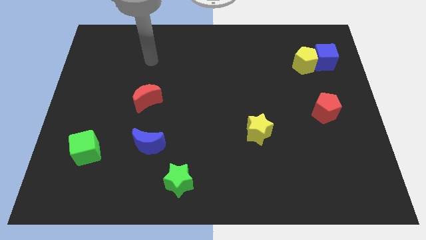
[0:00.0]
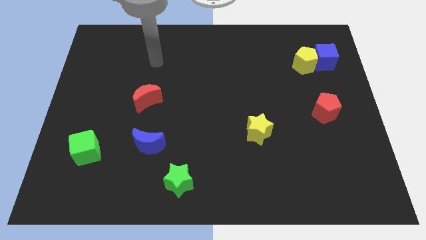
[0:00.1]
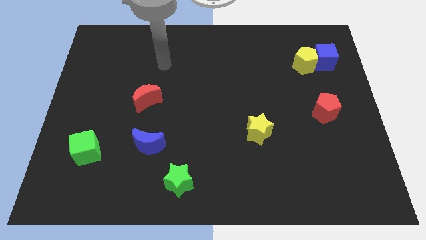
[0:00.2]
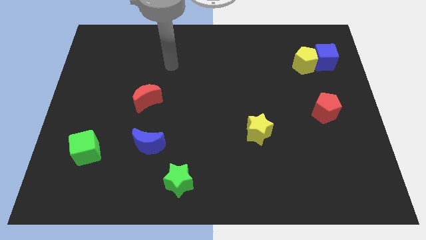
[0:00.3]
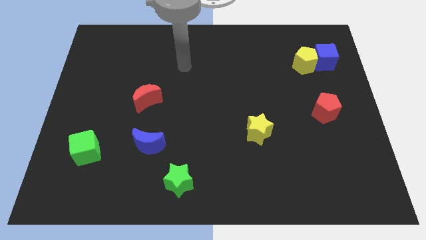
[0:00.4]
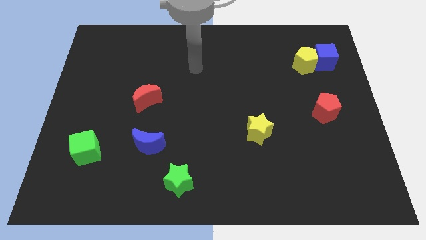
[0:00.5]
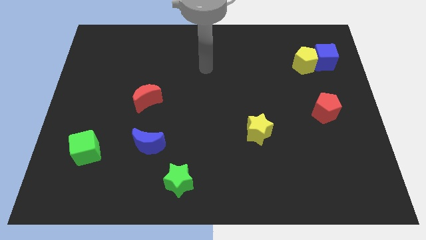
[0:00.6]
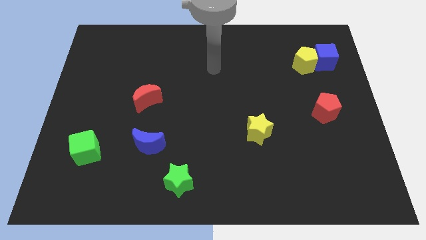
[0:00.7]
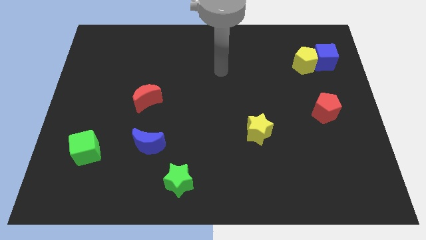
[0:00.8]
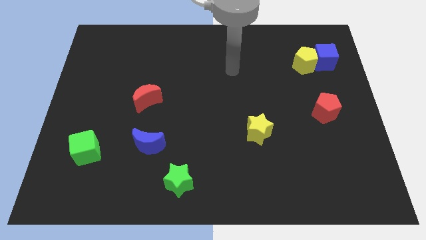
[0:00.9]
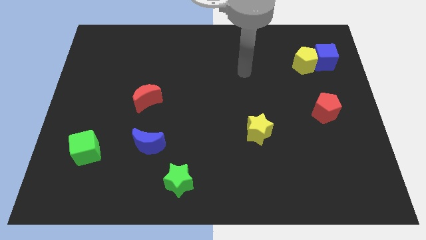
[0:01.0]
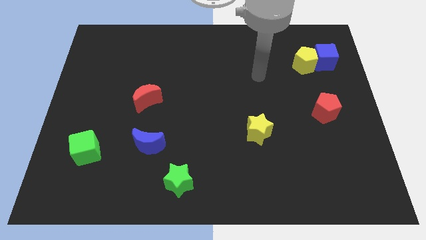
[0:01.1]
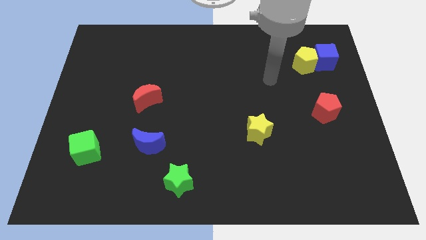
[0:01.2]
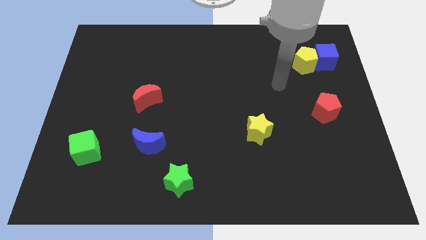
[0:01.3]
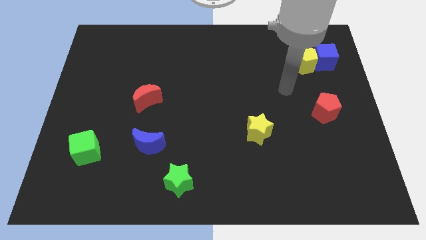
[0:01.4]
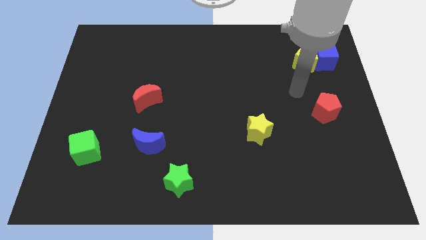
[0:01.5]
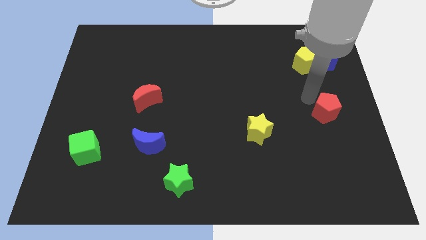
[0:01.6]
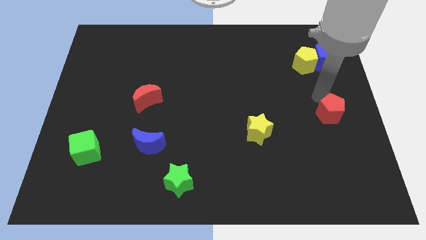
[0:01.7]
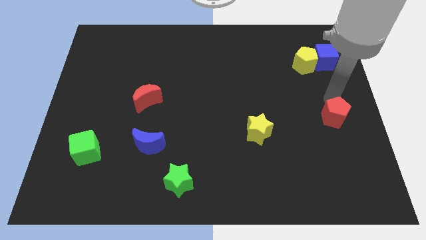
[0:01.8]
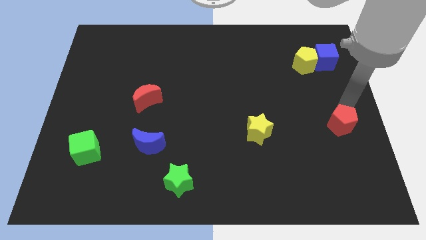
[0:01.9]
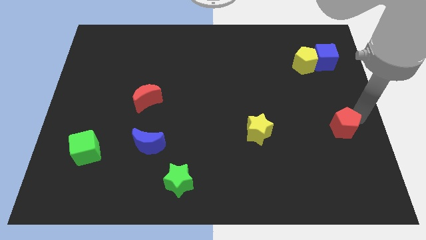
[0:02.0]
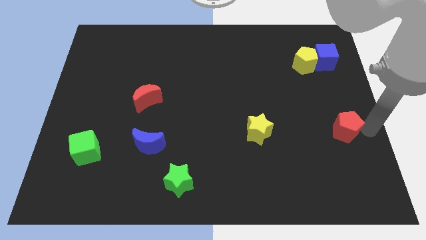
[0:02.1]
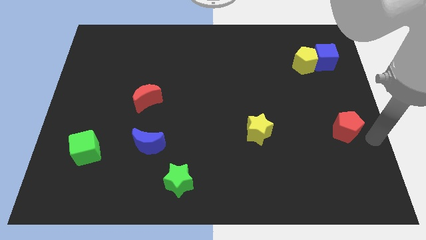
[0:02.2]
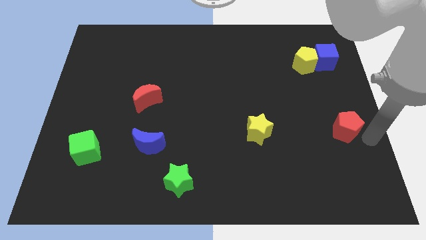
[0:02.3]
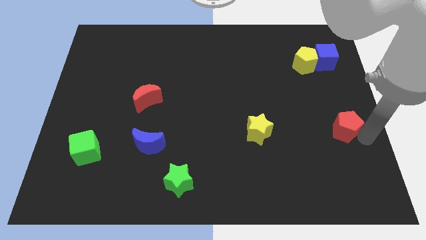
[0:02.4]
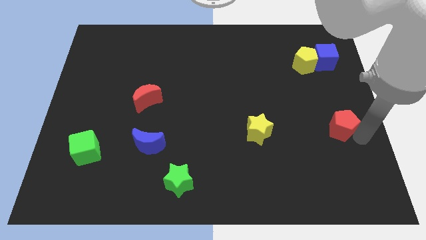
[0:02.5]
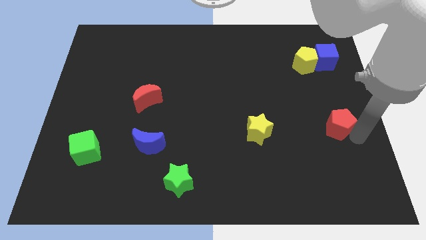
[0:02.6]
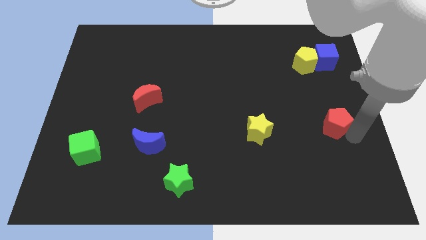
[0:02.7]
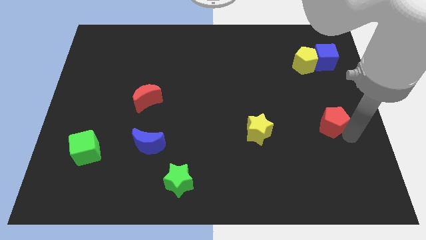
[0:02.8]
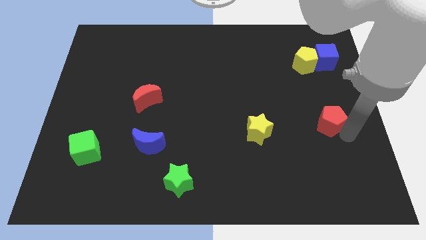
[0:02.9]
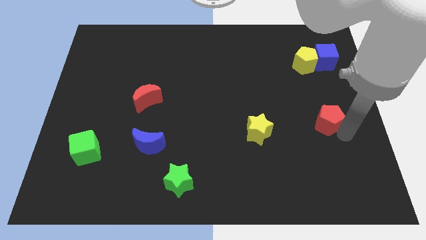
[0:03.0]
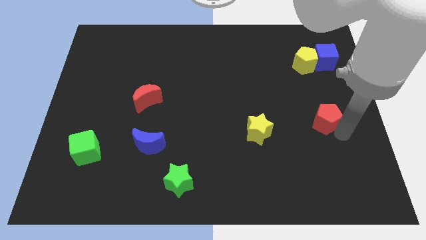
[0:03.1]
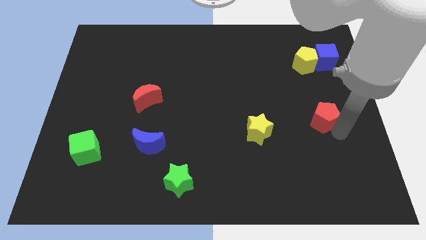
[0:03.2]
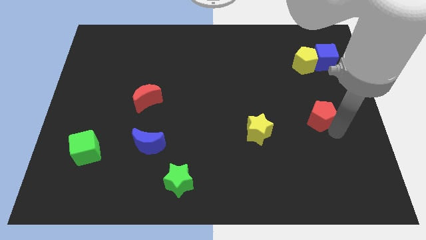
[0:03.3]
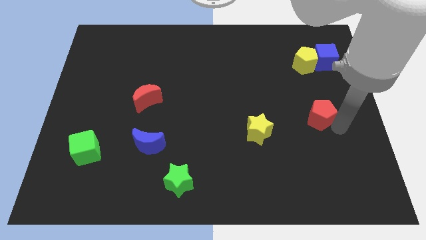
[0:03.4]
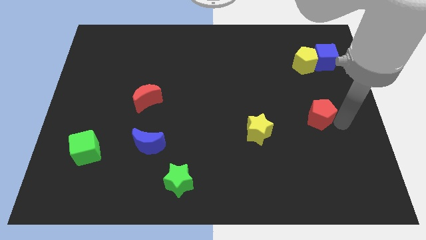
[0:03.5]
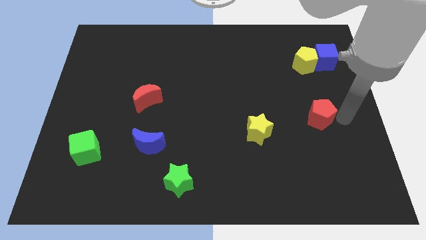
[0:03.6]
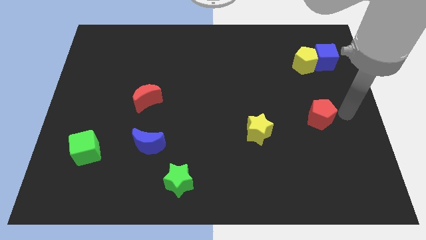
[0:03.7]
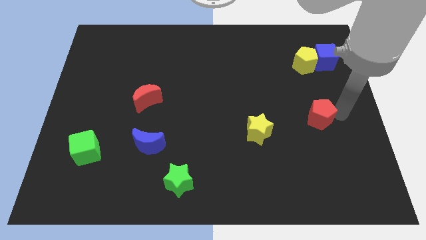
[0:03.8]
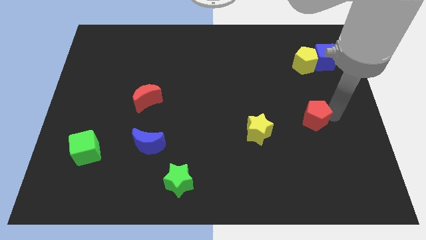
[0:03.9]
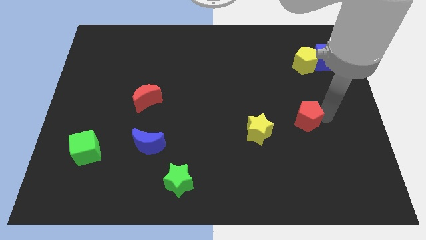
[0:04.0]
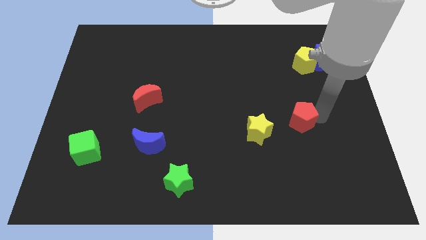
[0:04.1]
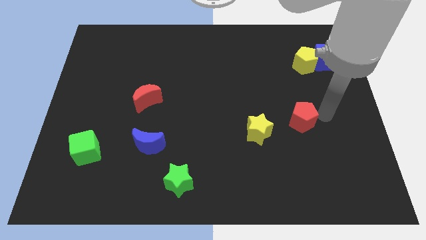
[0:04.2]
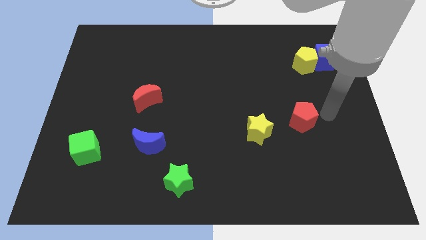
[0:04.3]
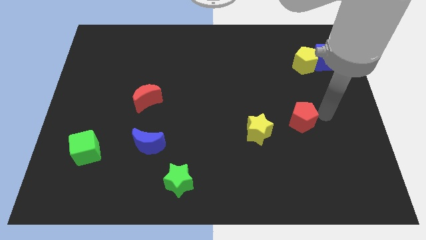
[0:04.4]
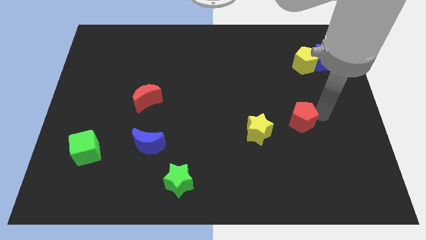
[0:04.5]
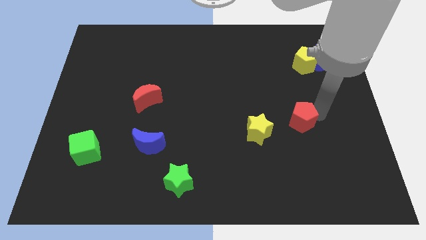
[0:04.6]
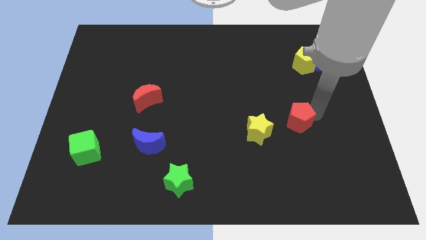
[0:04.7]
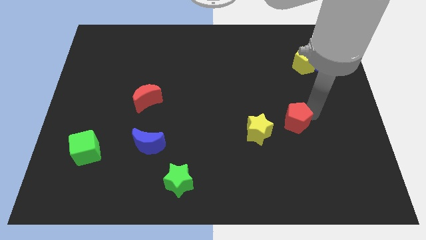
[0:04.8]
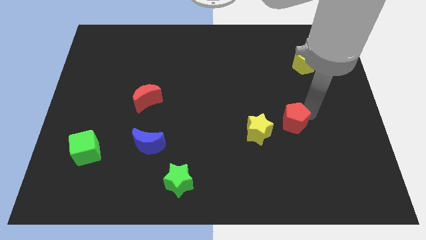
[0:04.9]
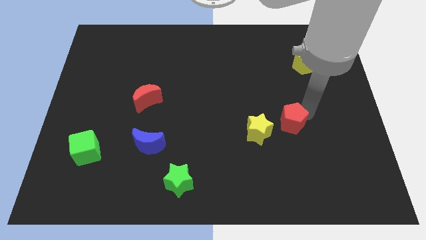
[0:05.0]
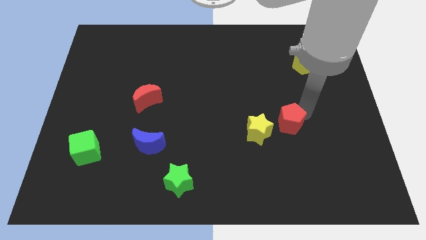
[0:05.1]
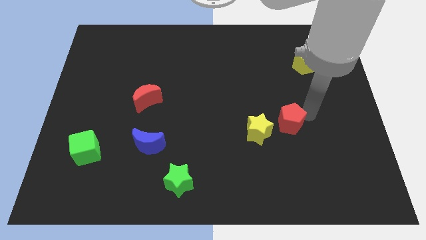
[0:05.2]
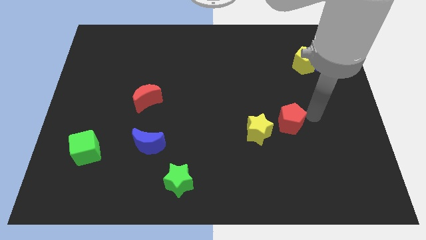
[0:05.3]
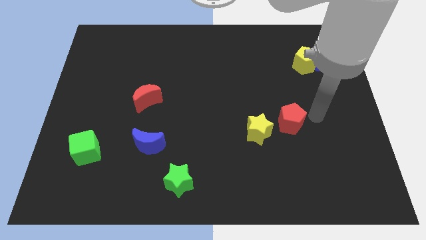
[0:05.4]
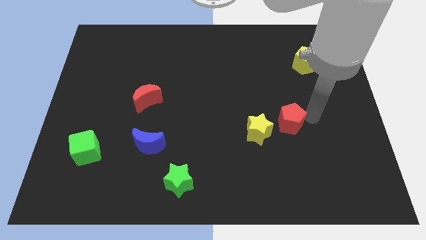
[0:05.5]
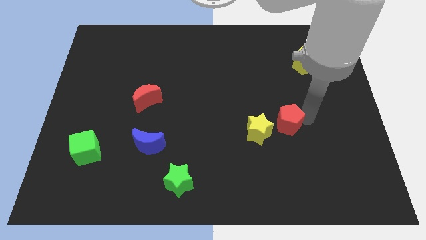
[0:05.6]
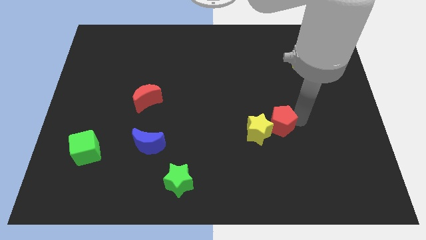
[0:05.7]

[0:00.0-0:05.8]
put the red pentagon to the yellow star

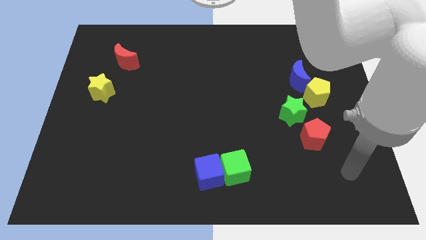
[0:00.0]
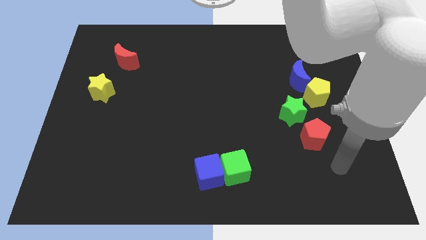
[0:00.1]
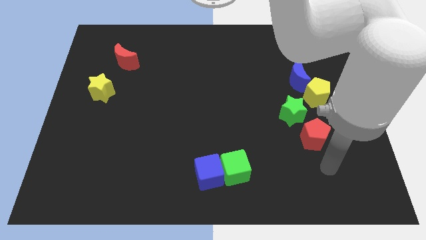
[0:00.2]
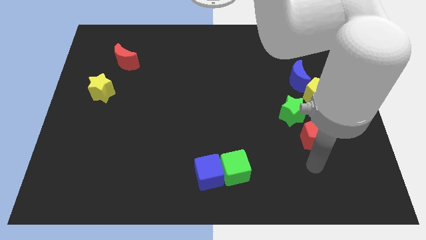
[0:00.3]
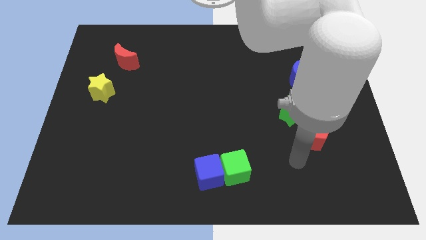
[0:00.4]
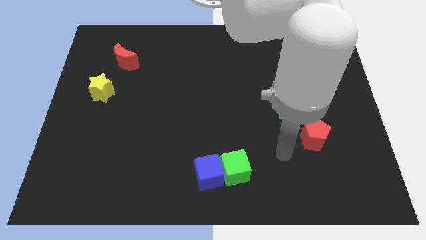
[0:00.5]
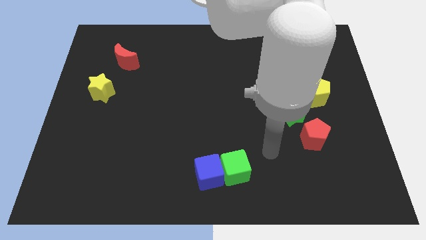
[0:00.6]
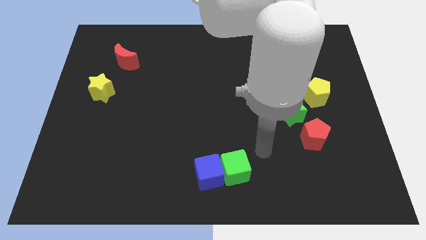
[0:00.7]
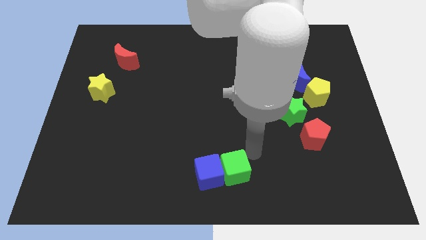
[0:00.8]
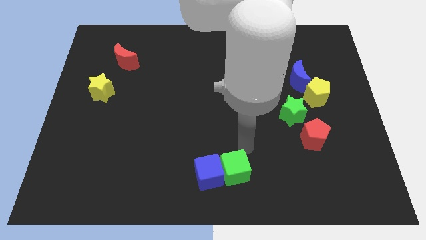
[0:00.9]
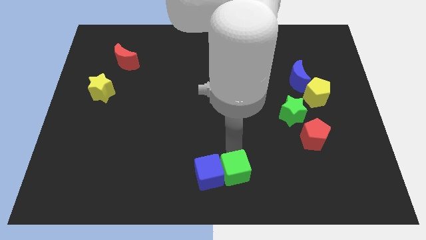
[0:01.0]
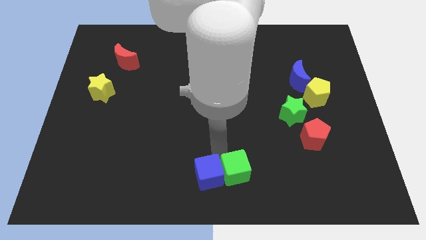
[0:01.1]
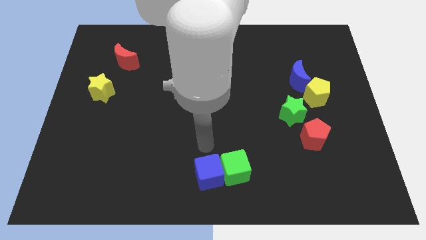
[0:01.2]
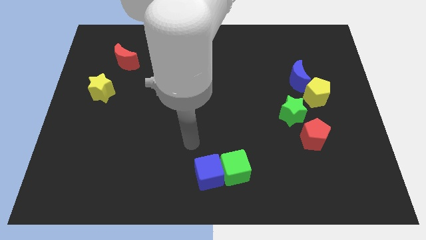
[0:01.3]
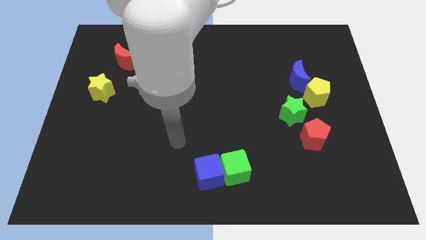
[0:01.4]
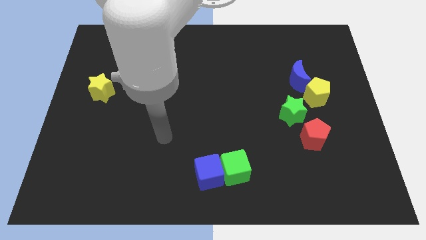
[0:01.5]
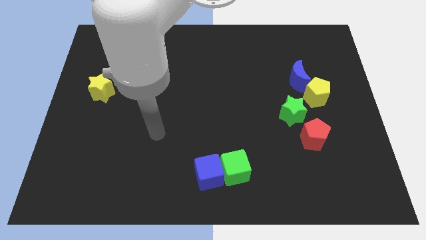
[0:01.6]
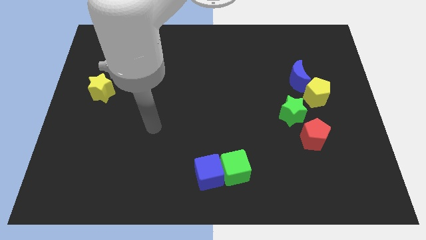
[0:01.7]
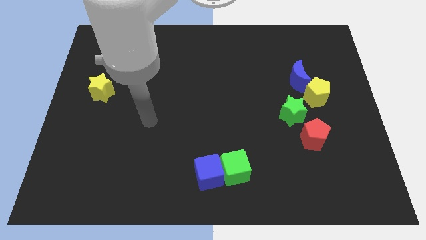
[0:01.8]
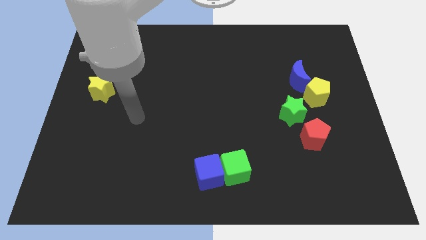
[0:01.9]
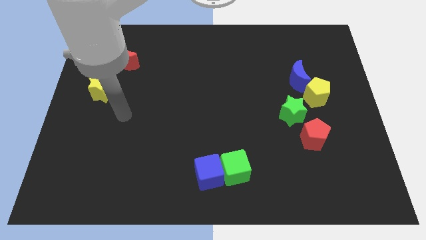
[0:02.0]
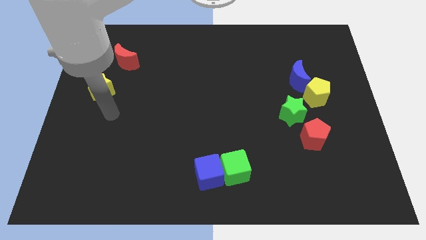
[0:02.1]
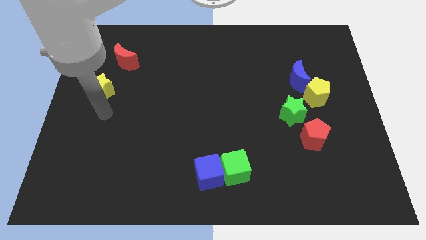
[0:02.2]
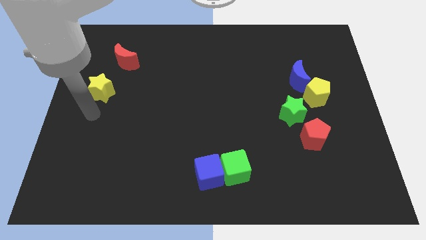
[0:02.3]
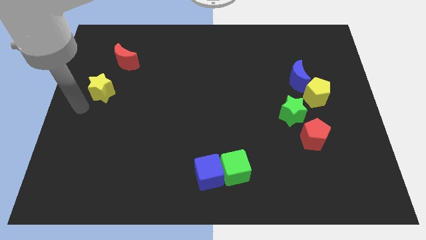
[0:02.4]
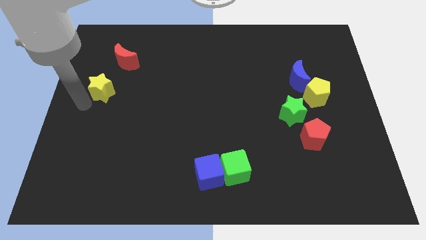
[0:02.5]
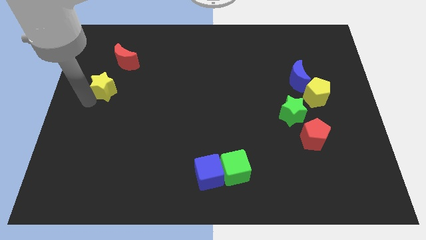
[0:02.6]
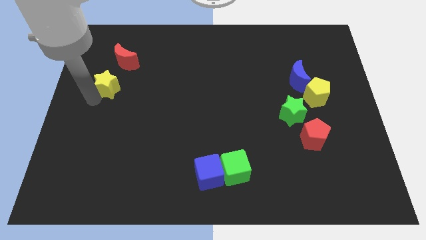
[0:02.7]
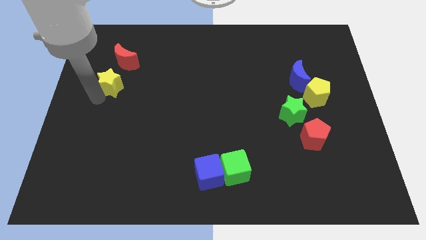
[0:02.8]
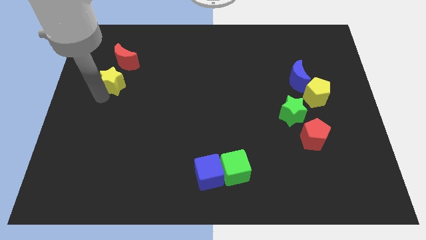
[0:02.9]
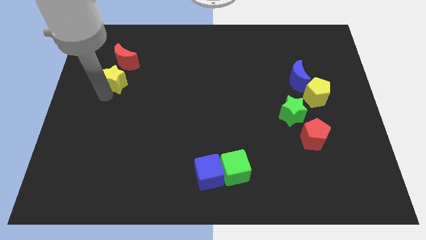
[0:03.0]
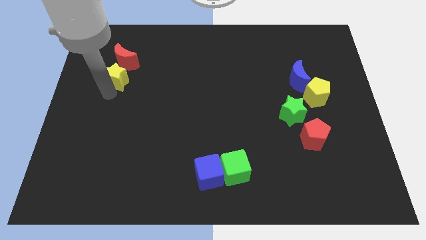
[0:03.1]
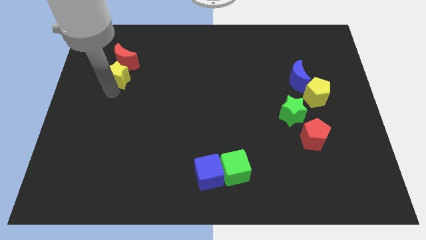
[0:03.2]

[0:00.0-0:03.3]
slide the yellow star close to the red moon
